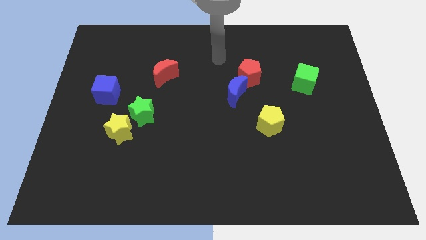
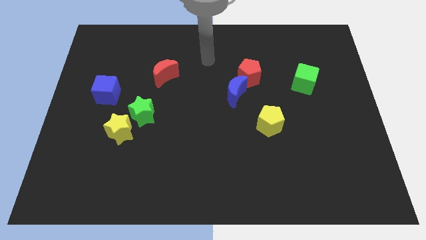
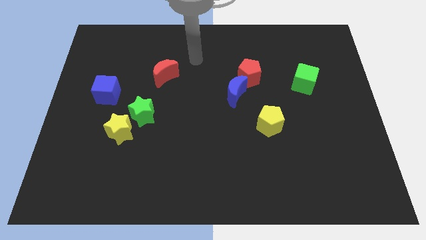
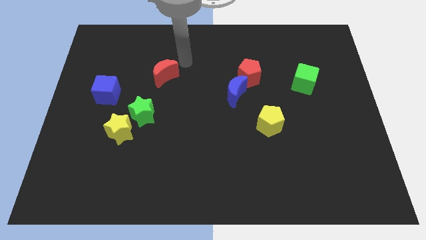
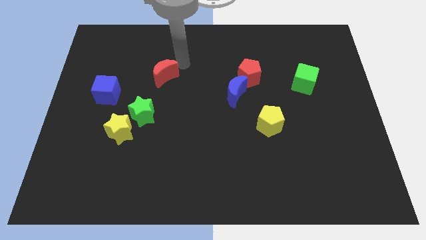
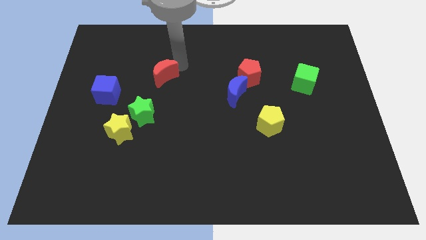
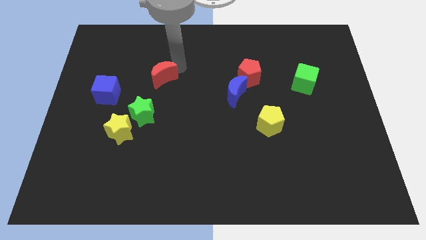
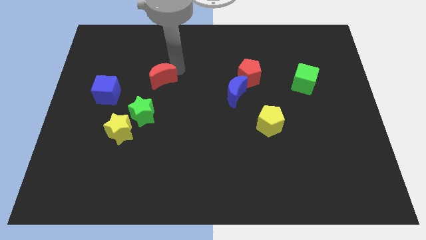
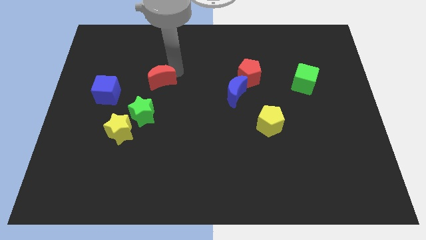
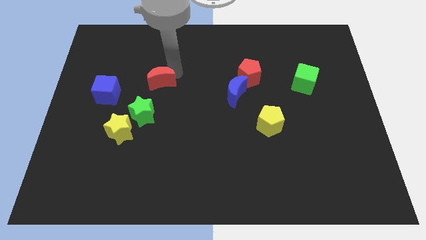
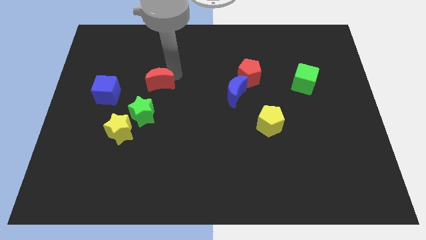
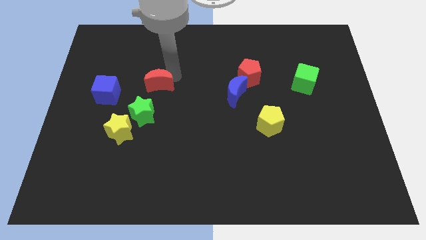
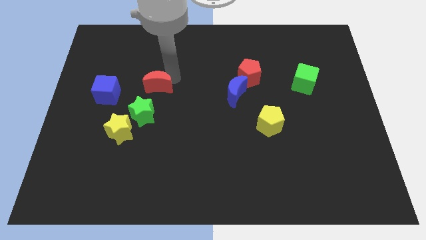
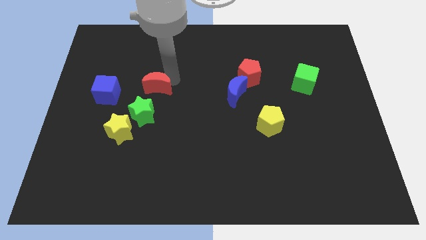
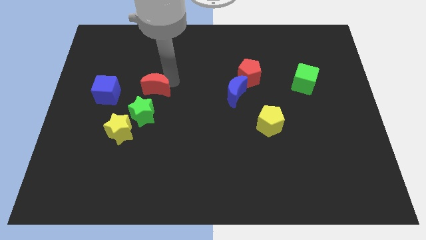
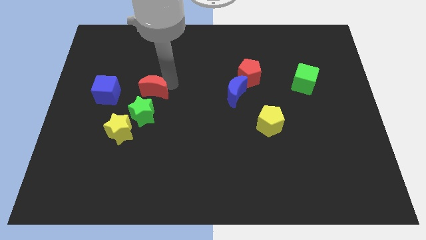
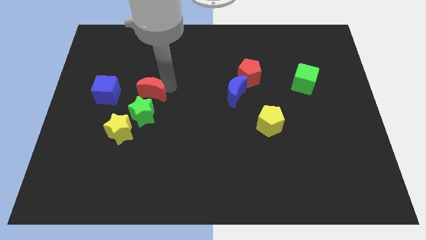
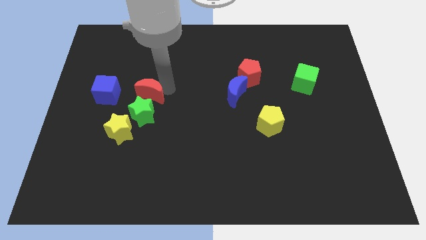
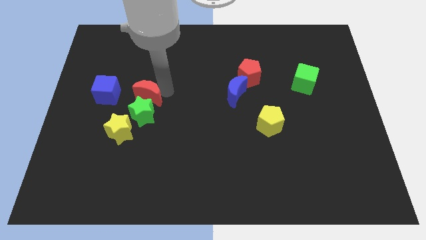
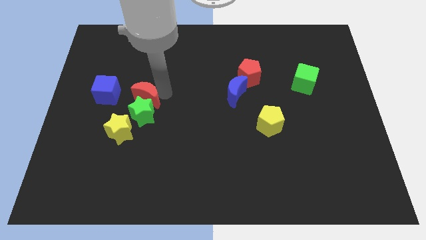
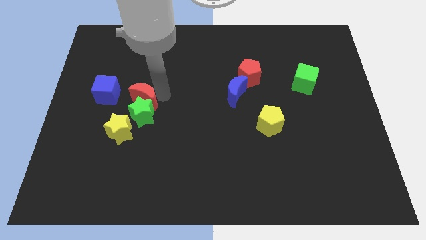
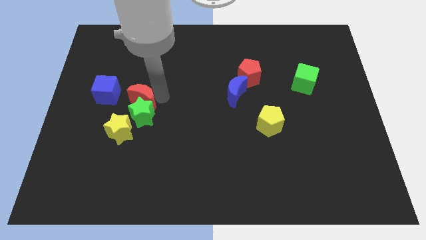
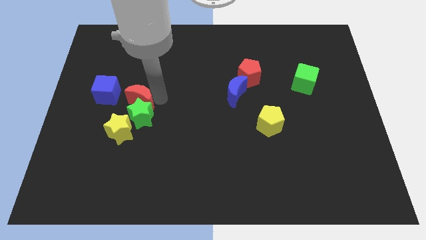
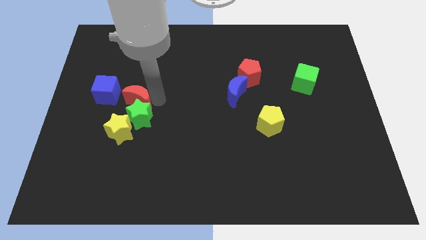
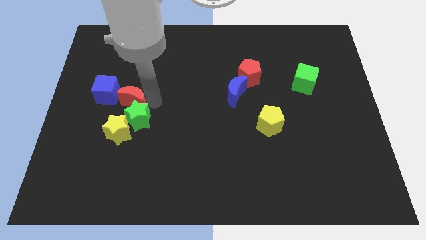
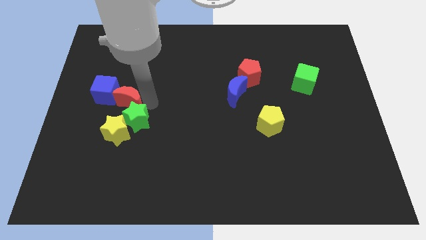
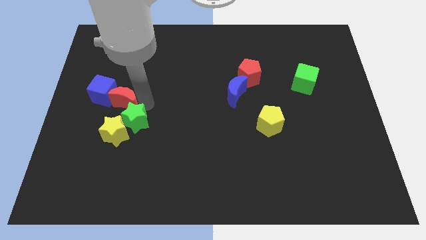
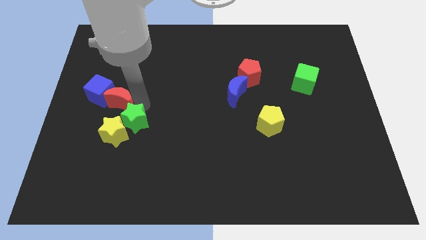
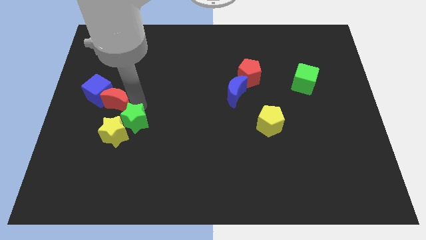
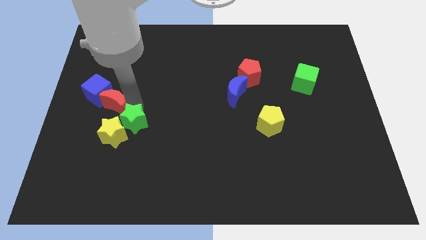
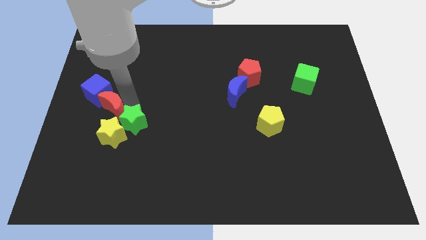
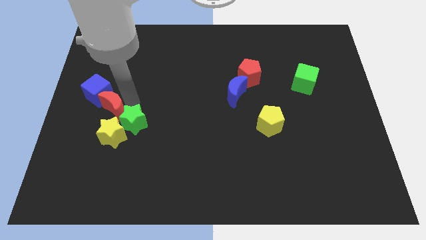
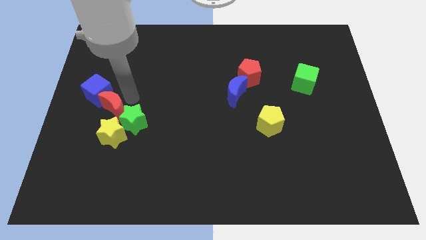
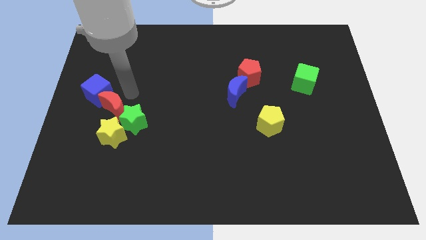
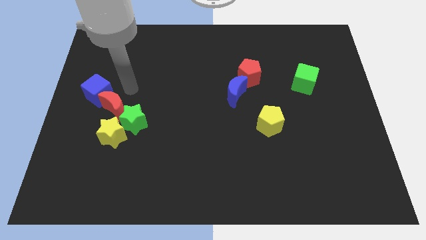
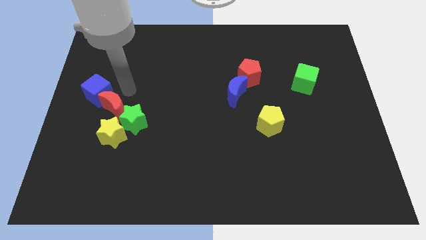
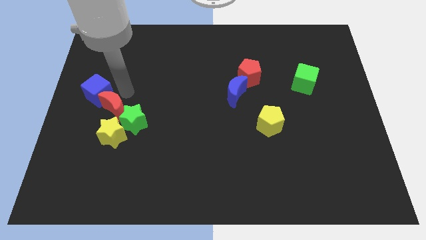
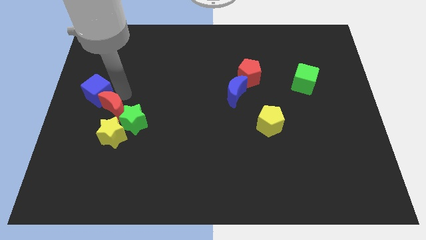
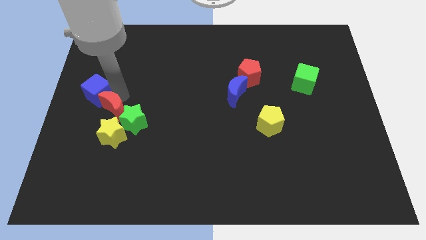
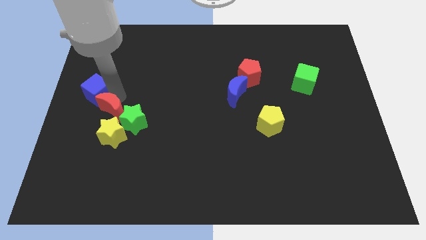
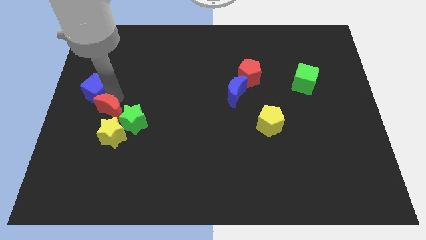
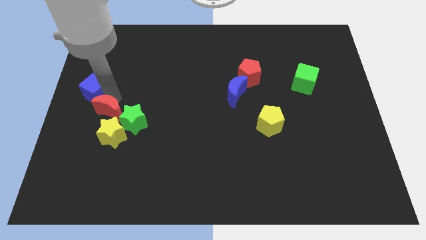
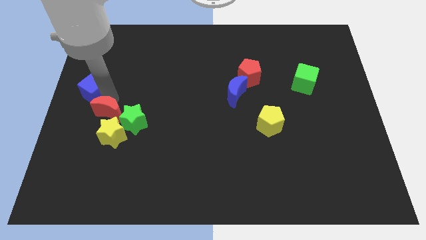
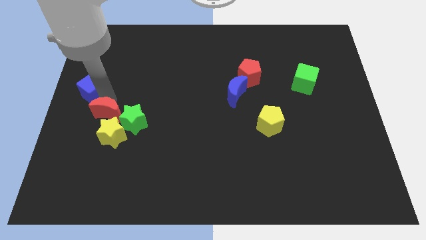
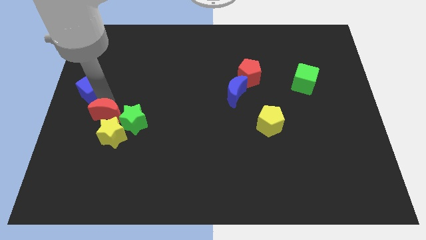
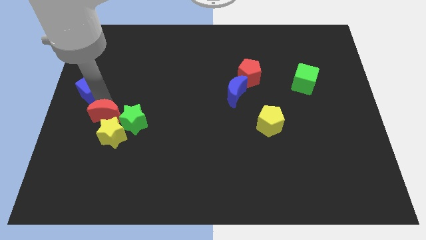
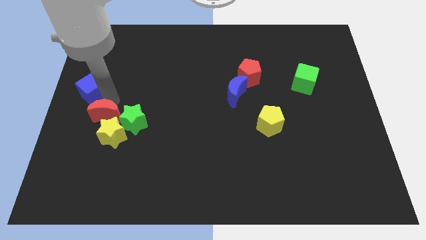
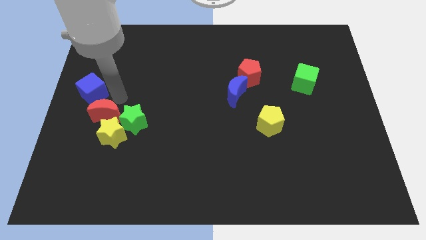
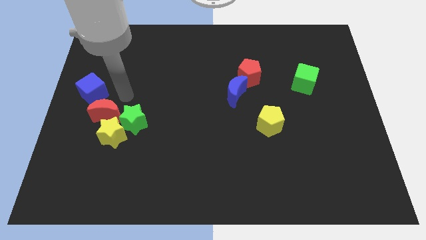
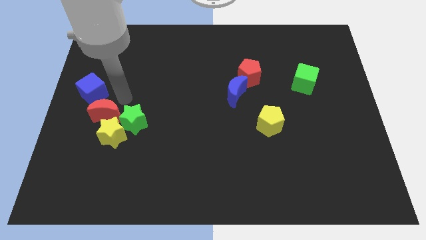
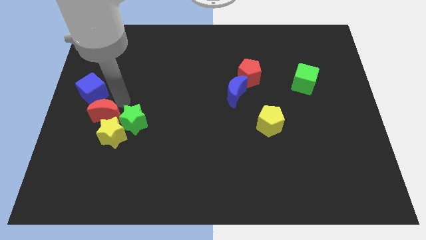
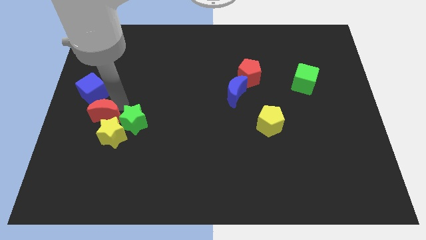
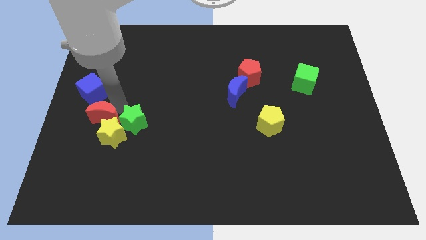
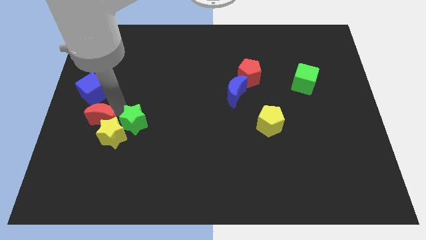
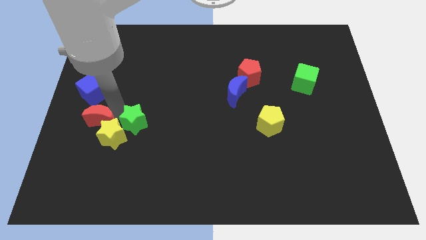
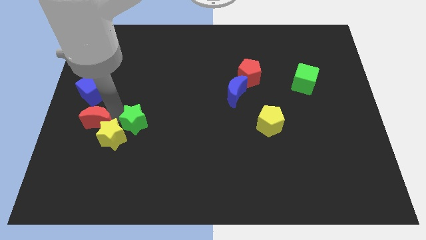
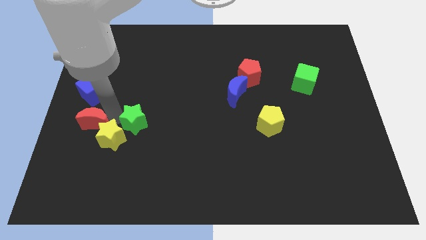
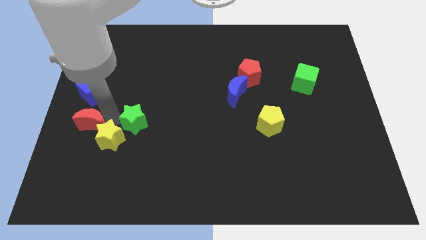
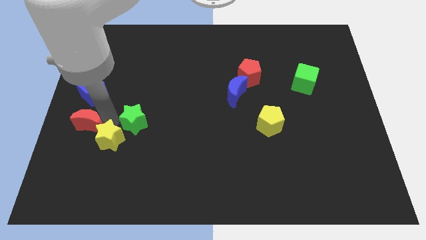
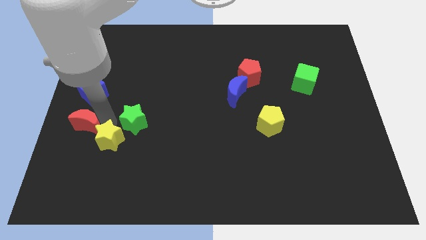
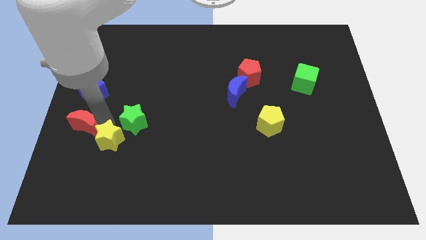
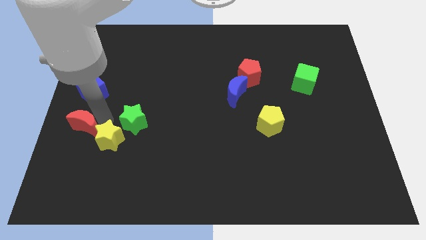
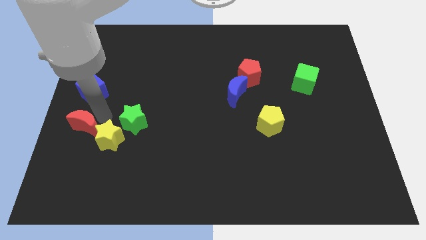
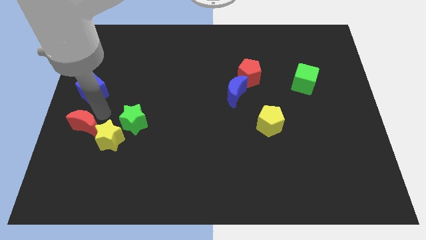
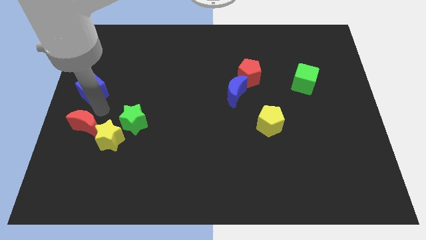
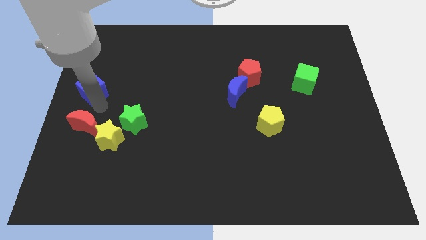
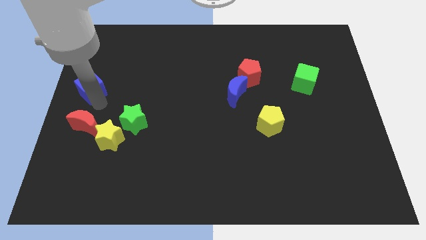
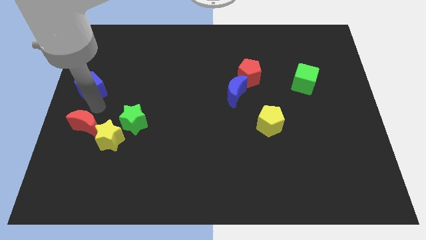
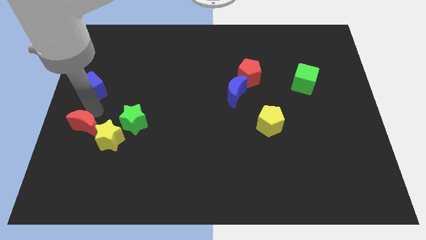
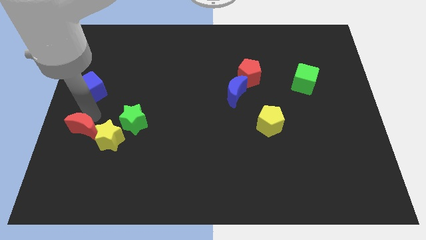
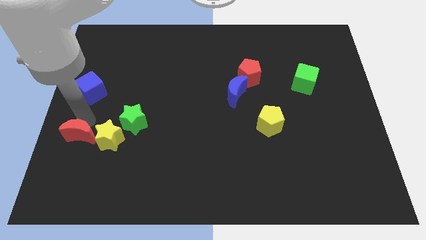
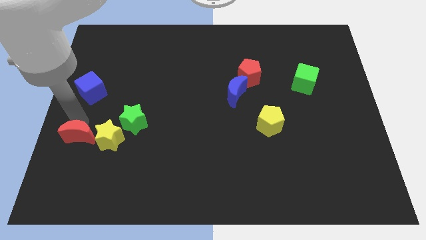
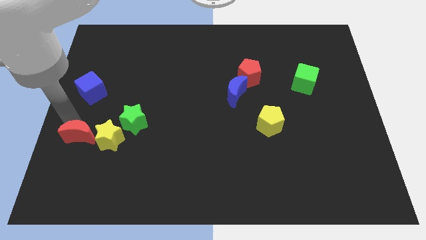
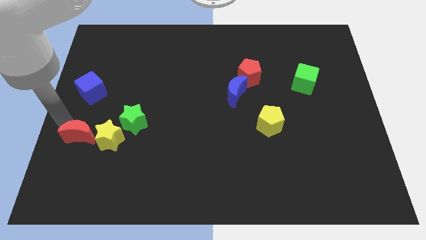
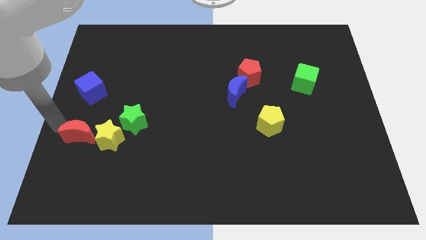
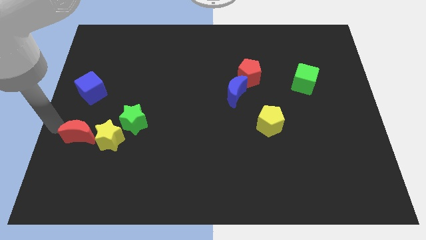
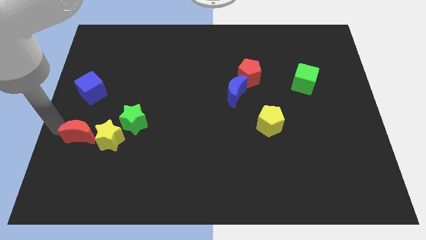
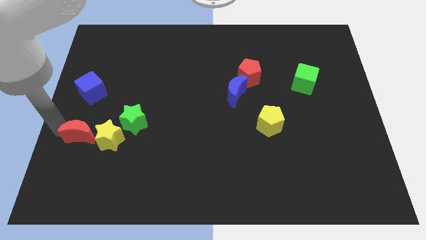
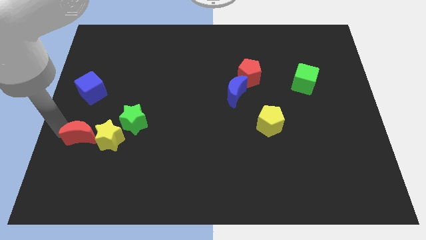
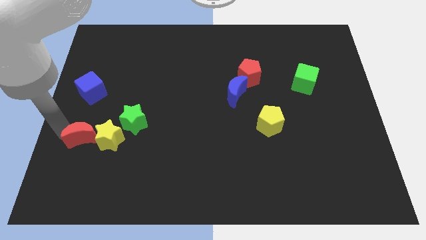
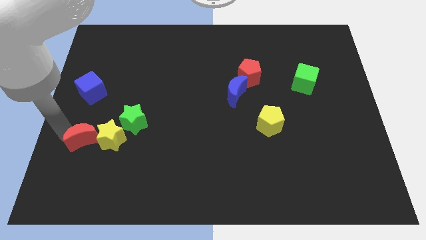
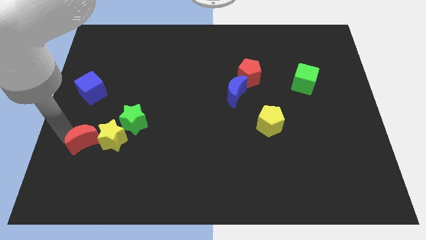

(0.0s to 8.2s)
push the red moon diagonally down and to the left of the green star
